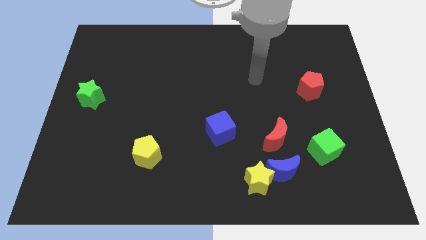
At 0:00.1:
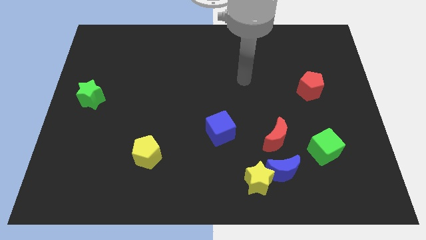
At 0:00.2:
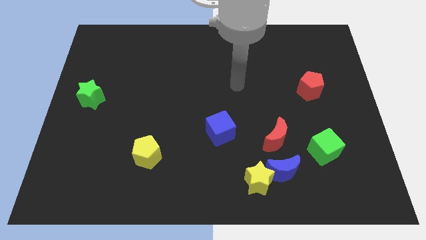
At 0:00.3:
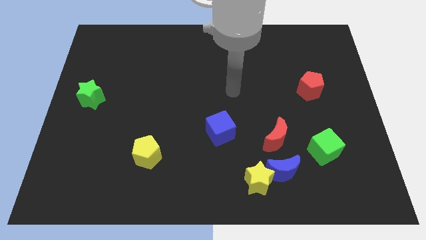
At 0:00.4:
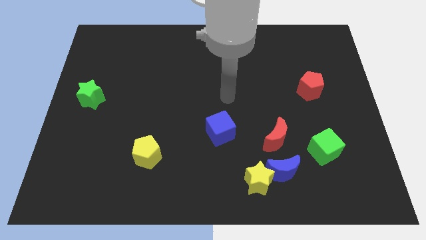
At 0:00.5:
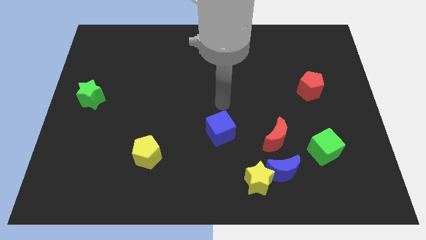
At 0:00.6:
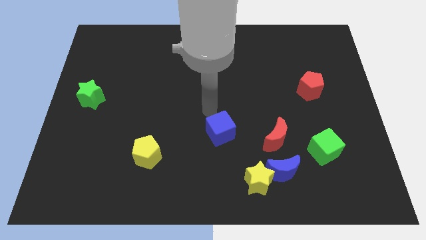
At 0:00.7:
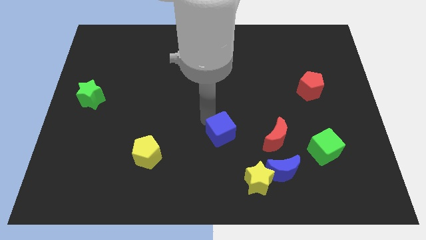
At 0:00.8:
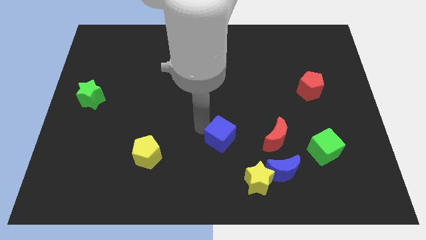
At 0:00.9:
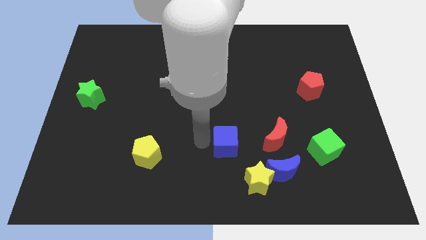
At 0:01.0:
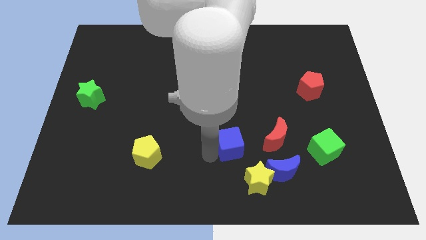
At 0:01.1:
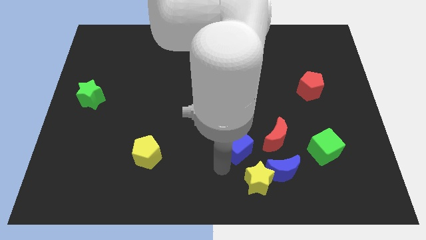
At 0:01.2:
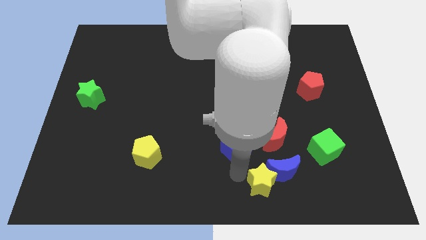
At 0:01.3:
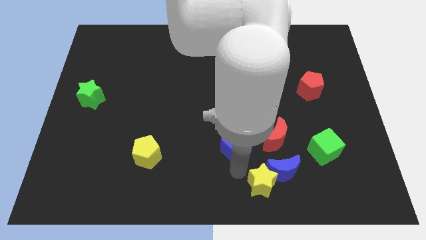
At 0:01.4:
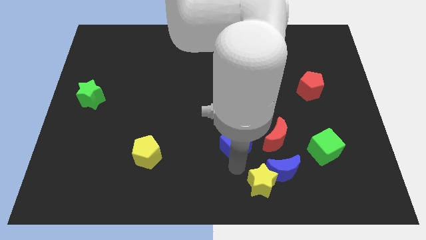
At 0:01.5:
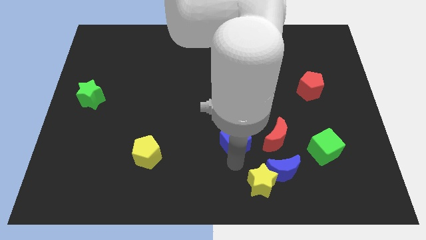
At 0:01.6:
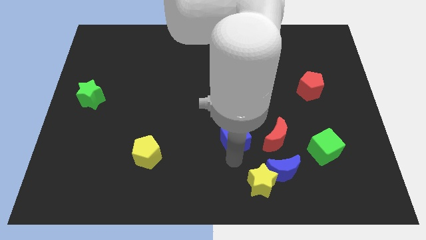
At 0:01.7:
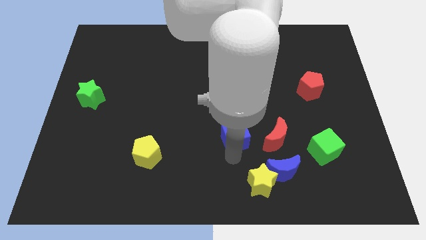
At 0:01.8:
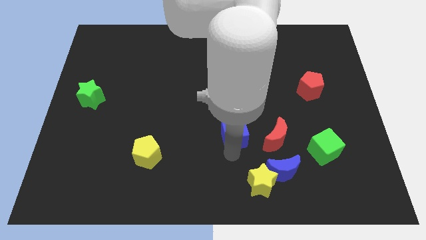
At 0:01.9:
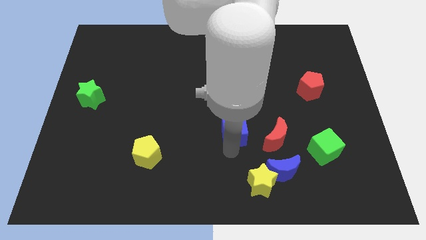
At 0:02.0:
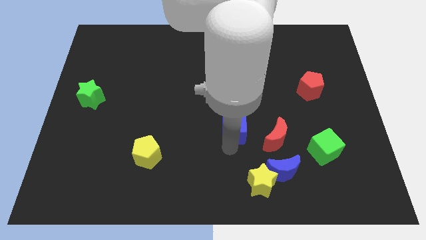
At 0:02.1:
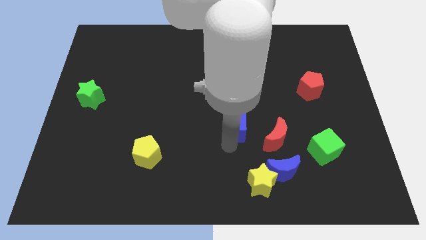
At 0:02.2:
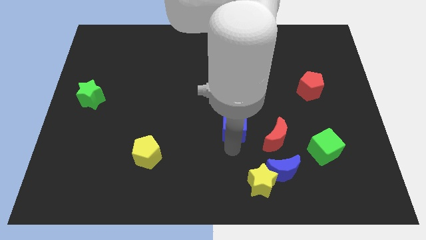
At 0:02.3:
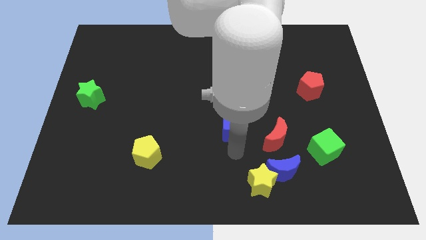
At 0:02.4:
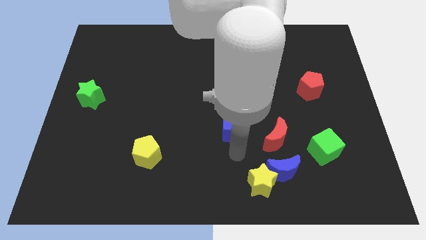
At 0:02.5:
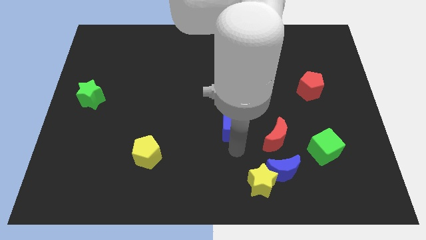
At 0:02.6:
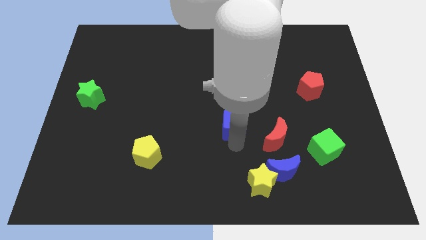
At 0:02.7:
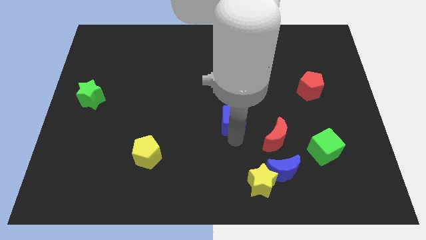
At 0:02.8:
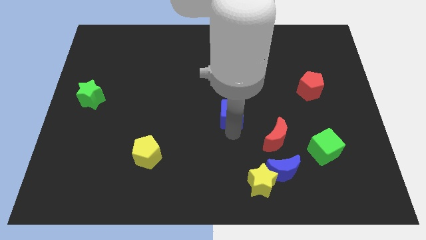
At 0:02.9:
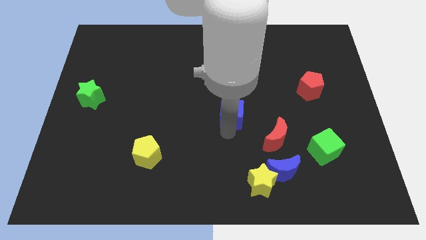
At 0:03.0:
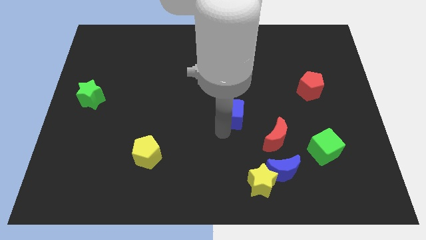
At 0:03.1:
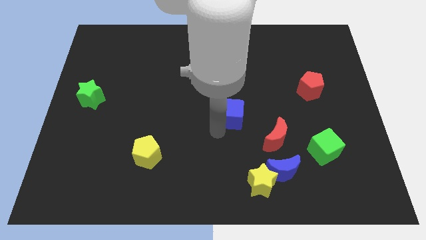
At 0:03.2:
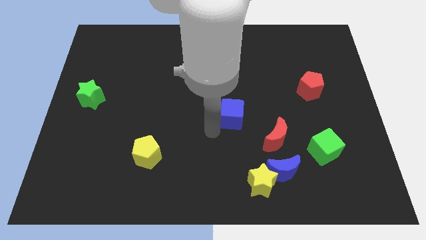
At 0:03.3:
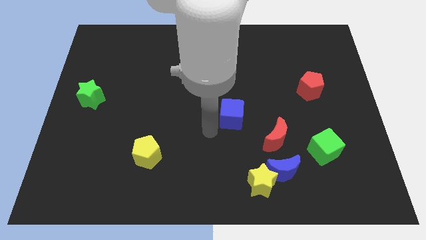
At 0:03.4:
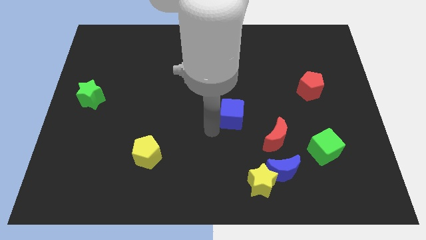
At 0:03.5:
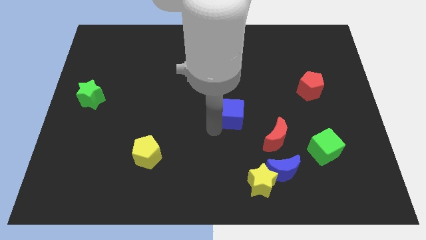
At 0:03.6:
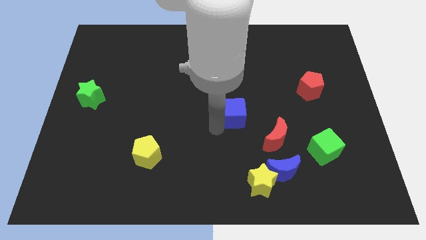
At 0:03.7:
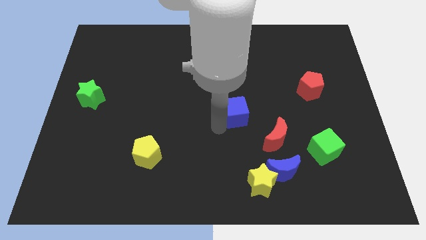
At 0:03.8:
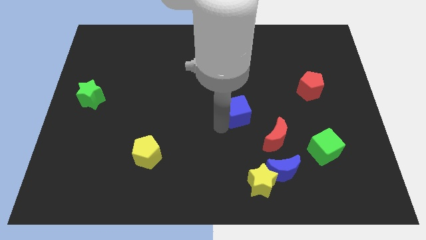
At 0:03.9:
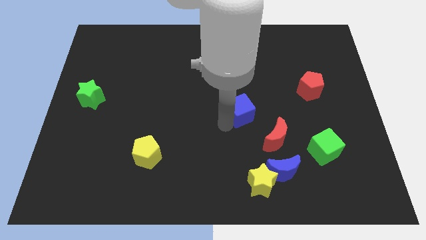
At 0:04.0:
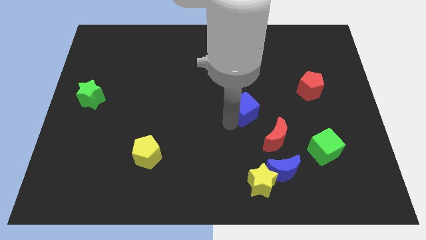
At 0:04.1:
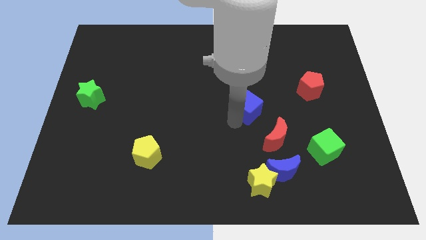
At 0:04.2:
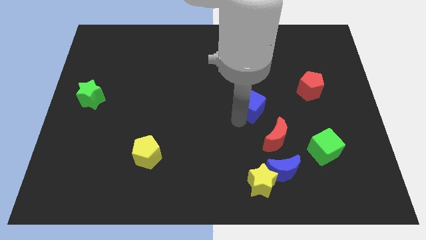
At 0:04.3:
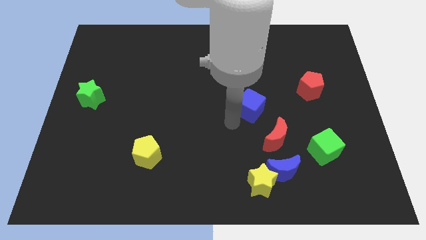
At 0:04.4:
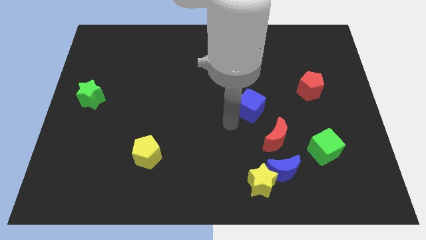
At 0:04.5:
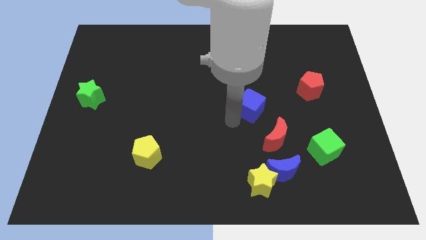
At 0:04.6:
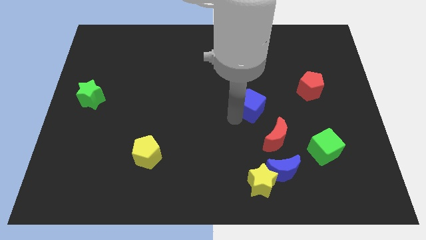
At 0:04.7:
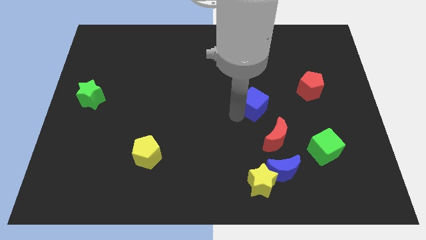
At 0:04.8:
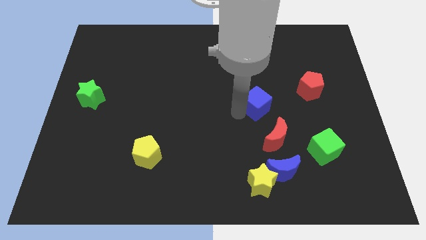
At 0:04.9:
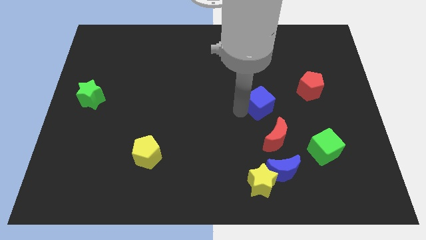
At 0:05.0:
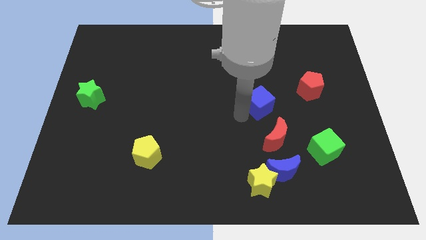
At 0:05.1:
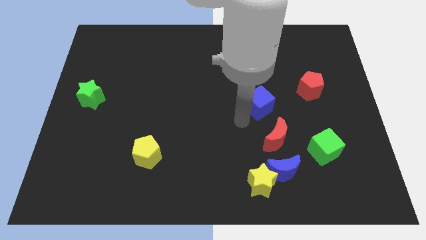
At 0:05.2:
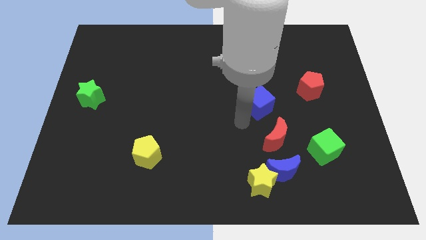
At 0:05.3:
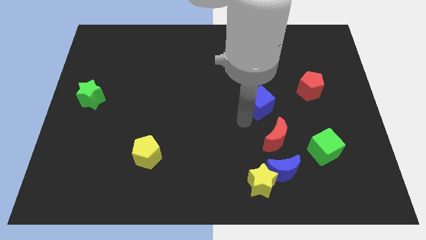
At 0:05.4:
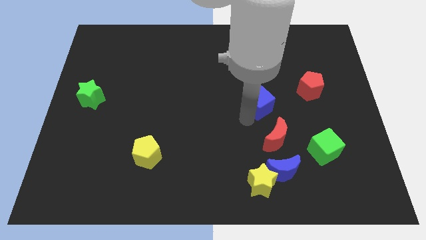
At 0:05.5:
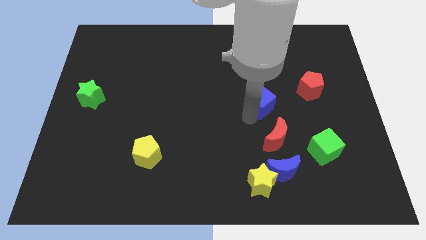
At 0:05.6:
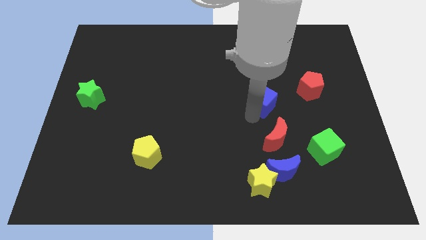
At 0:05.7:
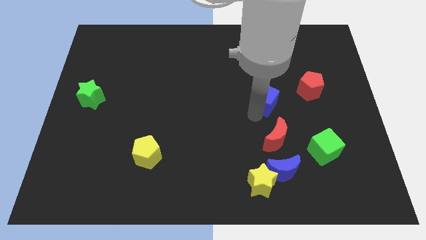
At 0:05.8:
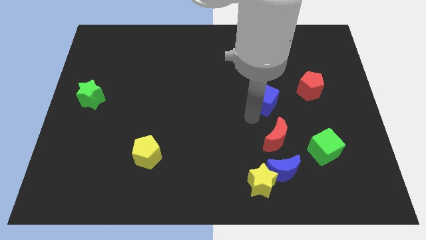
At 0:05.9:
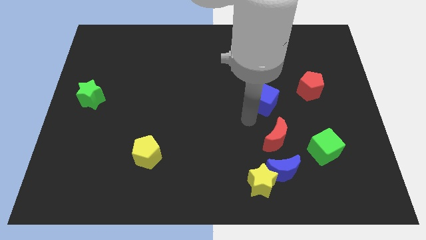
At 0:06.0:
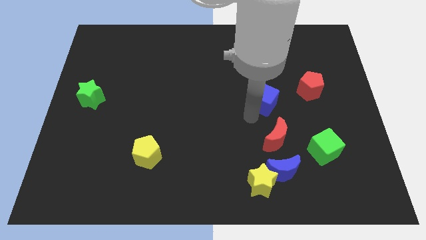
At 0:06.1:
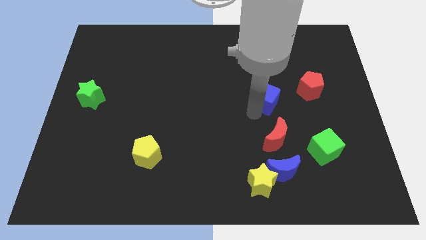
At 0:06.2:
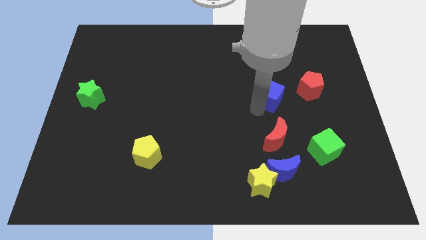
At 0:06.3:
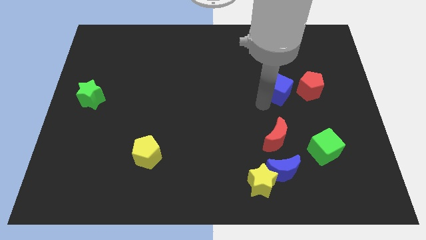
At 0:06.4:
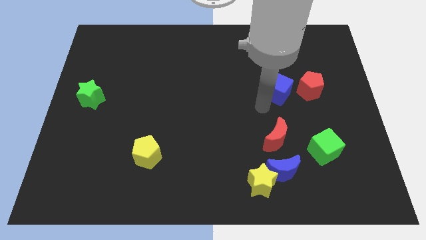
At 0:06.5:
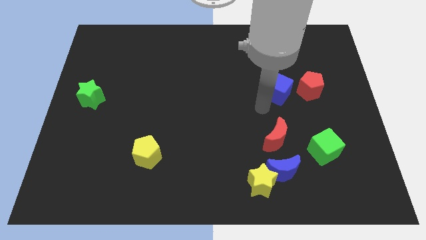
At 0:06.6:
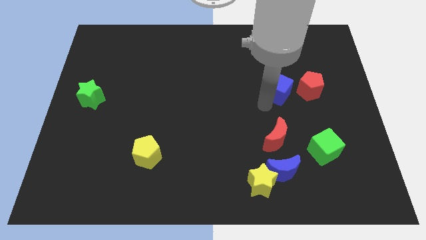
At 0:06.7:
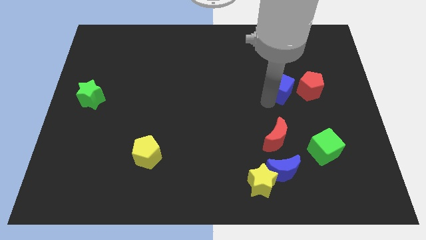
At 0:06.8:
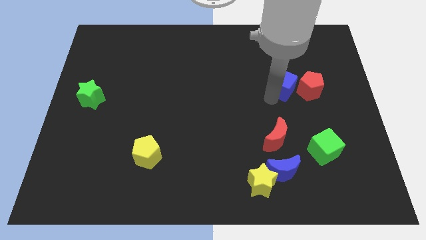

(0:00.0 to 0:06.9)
slide the blue cube upwards and then right

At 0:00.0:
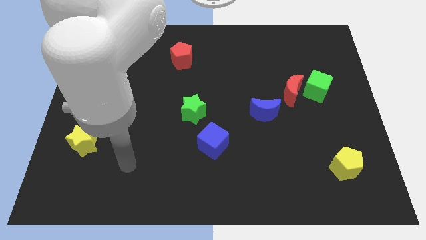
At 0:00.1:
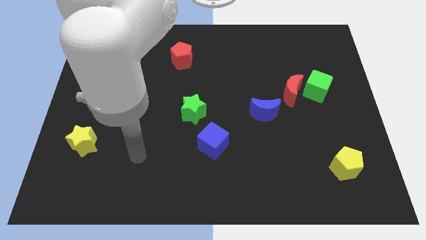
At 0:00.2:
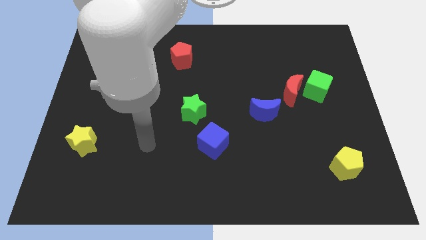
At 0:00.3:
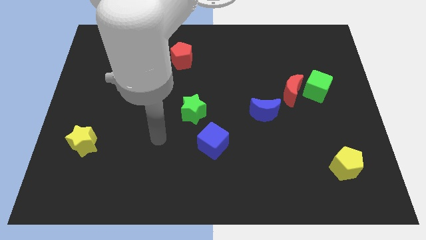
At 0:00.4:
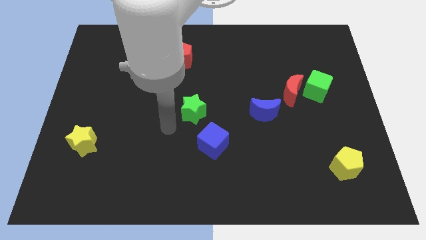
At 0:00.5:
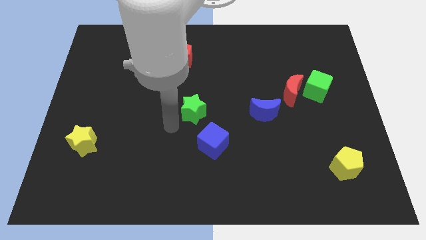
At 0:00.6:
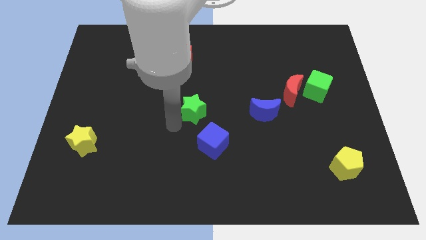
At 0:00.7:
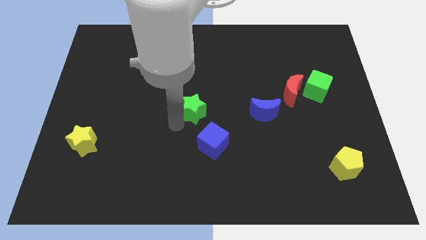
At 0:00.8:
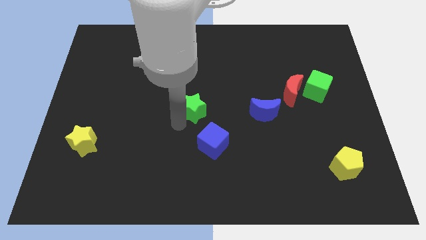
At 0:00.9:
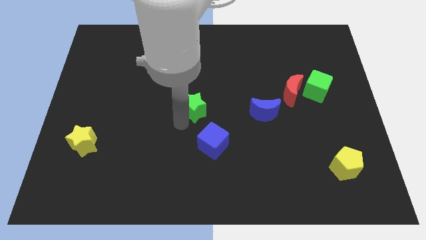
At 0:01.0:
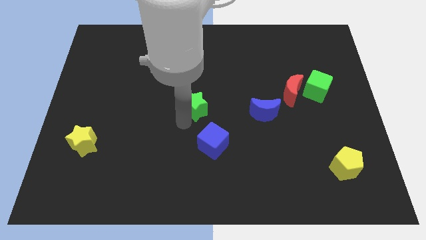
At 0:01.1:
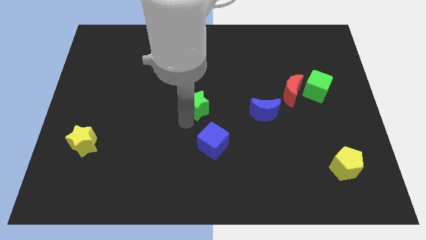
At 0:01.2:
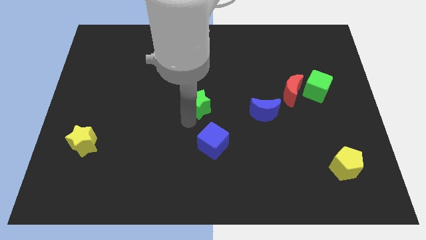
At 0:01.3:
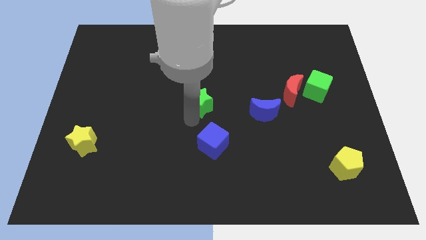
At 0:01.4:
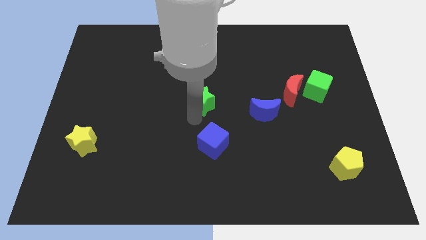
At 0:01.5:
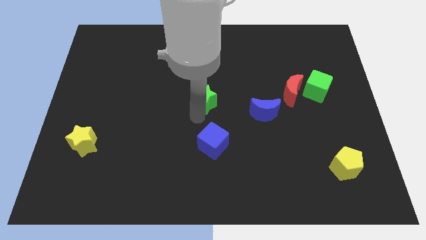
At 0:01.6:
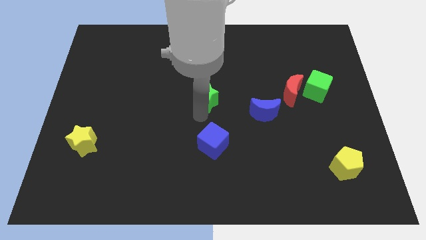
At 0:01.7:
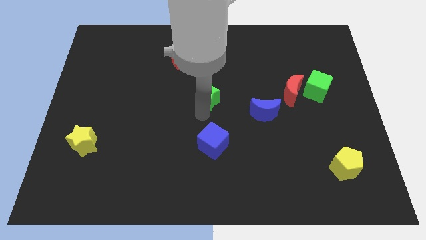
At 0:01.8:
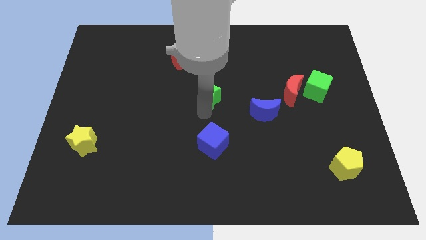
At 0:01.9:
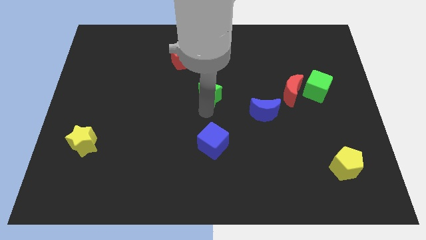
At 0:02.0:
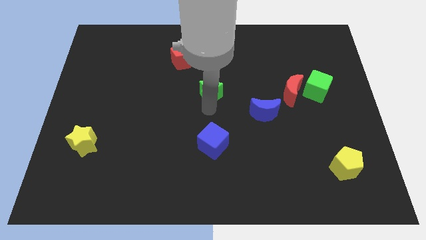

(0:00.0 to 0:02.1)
move the green star upwards and right diagonally a little bit
